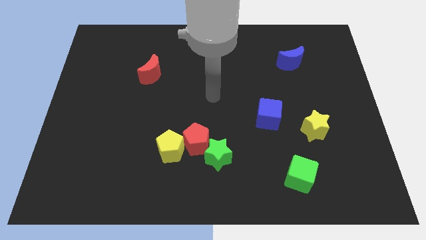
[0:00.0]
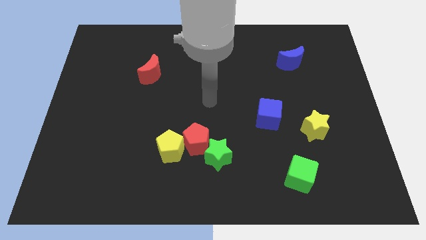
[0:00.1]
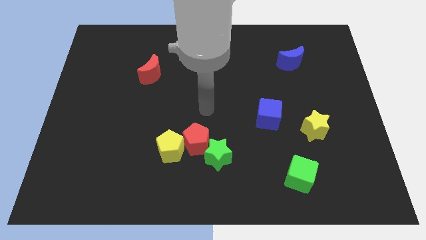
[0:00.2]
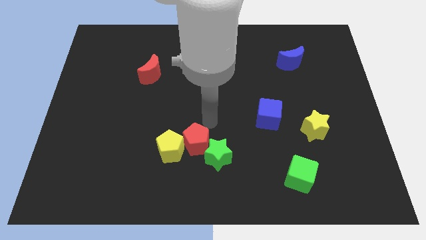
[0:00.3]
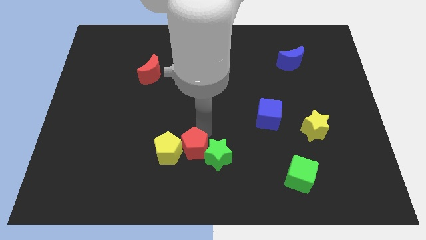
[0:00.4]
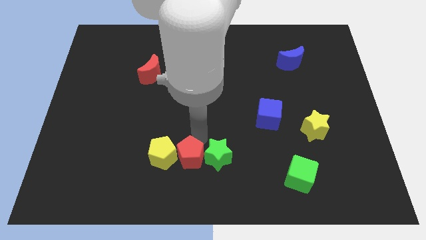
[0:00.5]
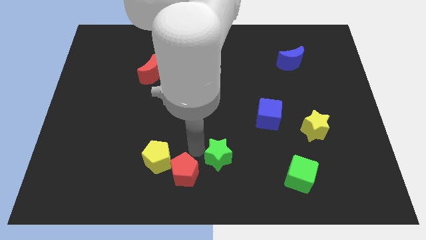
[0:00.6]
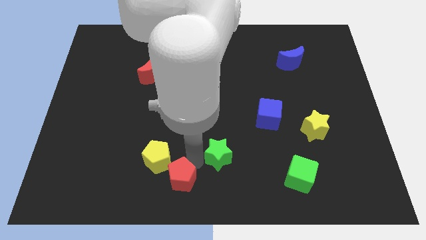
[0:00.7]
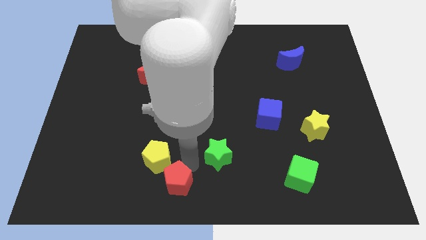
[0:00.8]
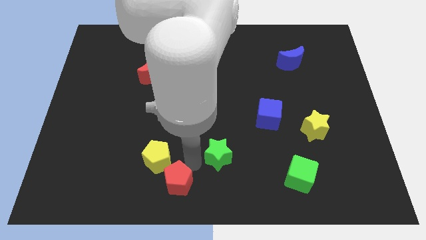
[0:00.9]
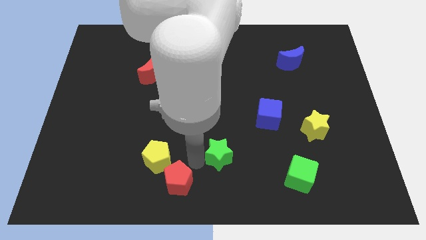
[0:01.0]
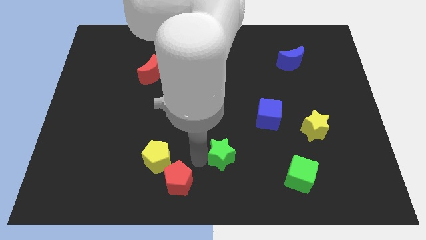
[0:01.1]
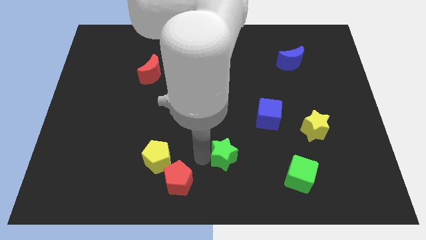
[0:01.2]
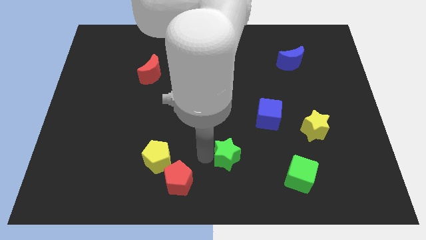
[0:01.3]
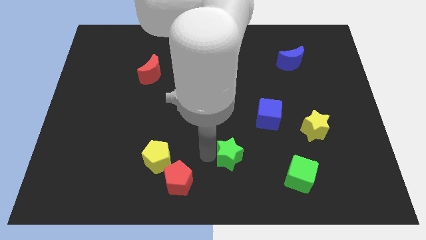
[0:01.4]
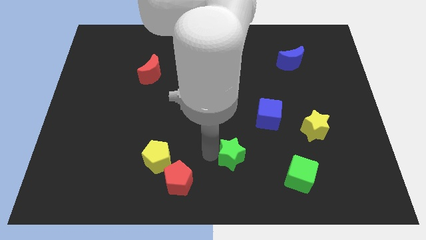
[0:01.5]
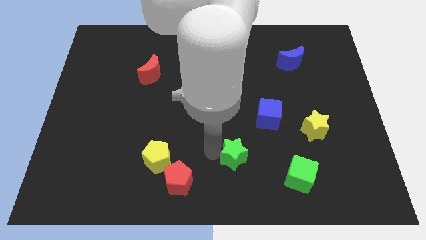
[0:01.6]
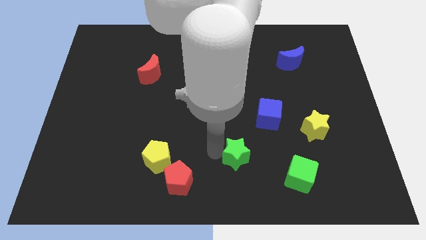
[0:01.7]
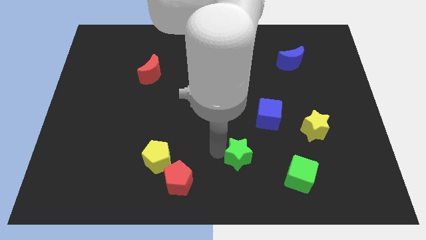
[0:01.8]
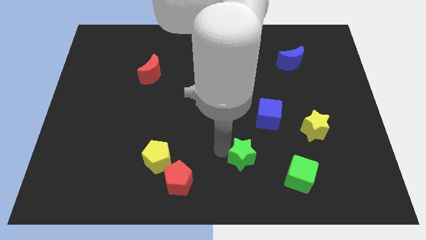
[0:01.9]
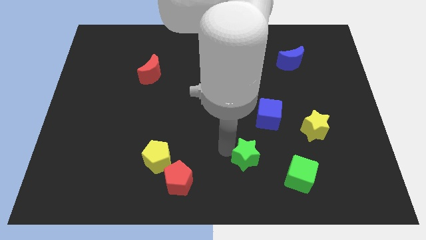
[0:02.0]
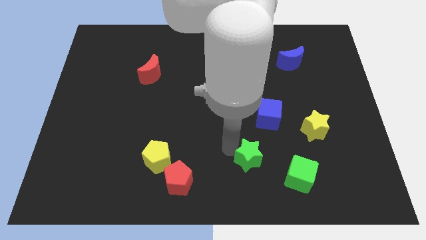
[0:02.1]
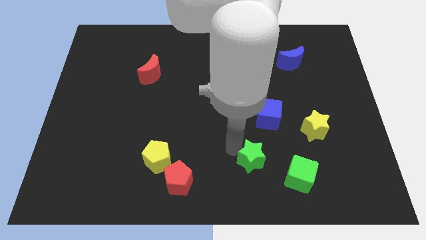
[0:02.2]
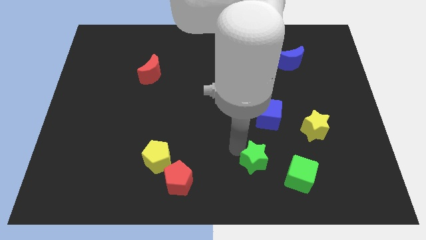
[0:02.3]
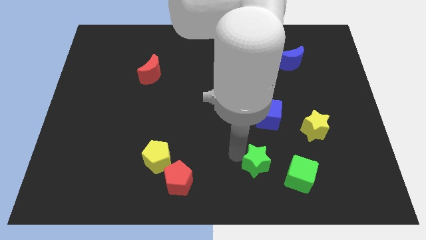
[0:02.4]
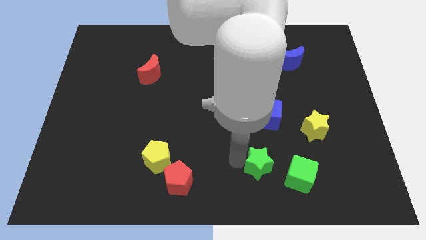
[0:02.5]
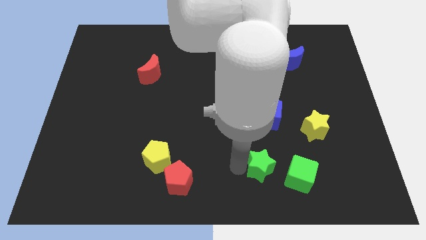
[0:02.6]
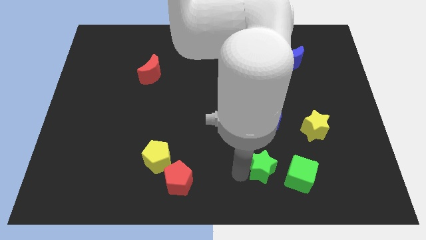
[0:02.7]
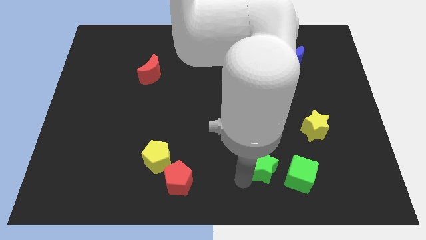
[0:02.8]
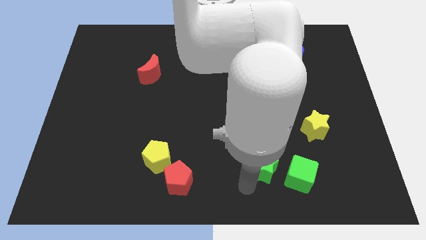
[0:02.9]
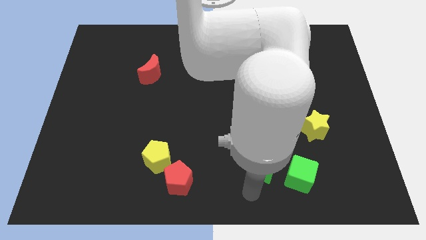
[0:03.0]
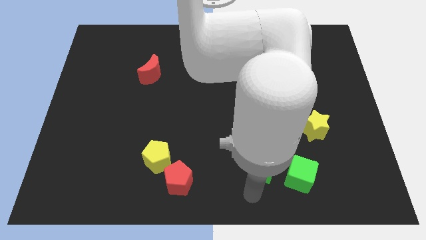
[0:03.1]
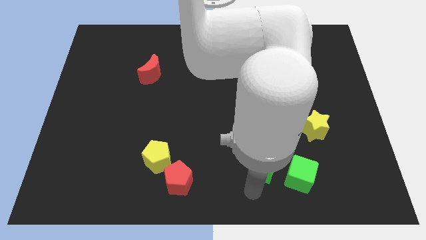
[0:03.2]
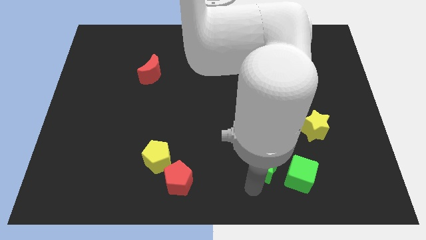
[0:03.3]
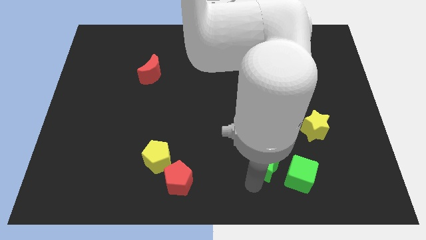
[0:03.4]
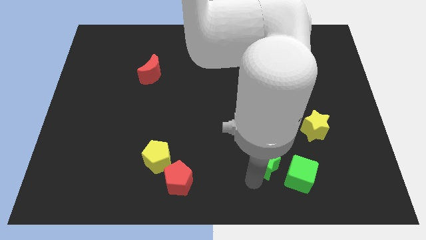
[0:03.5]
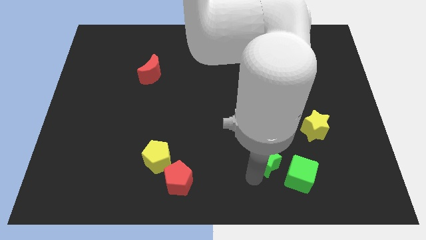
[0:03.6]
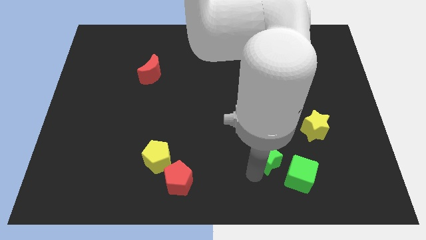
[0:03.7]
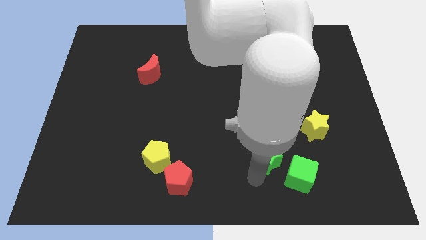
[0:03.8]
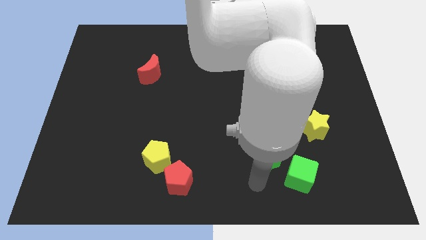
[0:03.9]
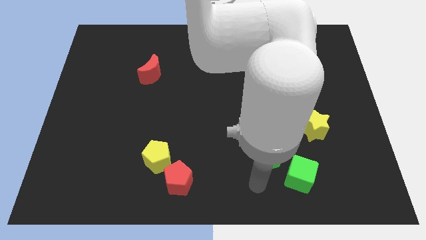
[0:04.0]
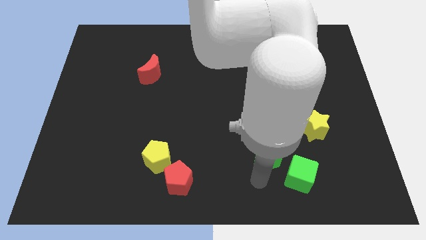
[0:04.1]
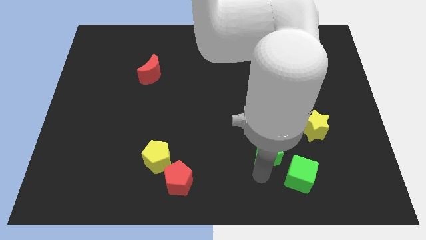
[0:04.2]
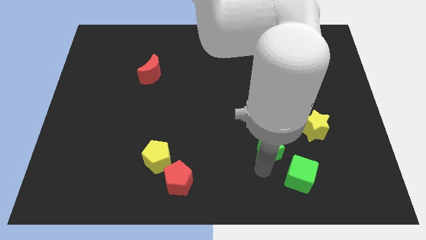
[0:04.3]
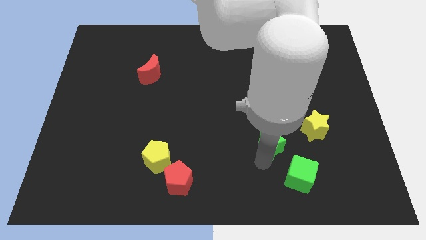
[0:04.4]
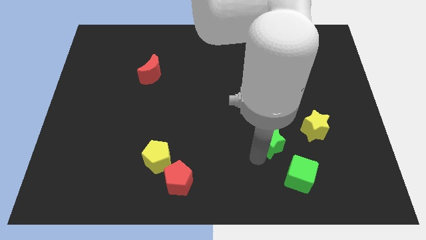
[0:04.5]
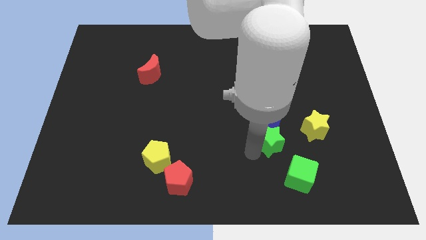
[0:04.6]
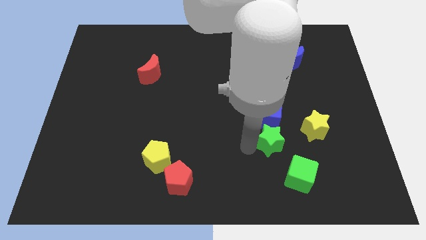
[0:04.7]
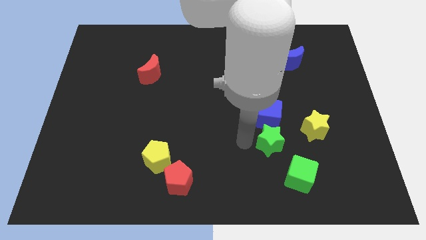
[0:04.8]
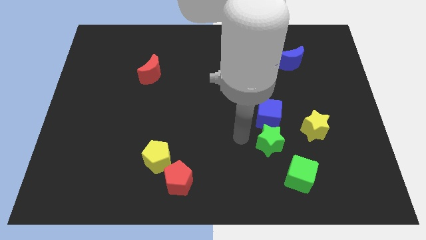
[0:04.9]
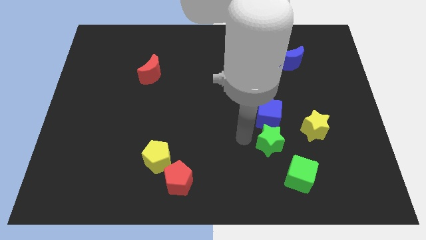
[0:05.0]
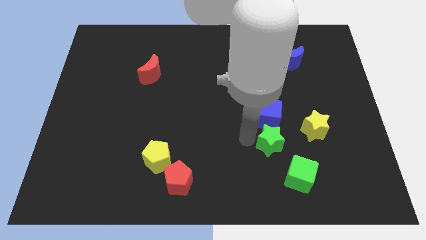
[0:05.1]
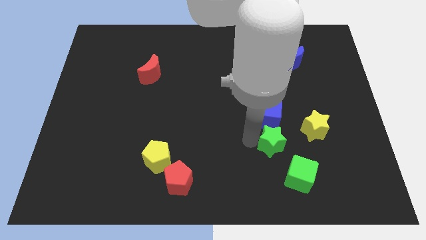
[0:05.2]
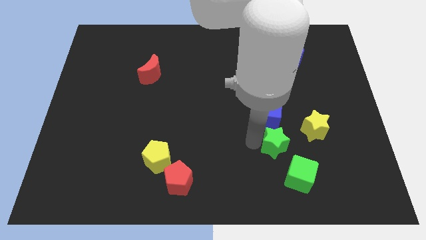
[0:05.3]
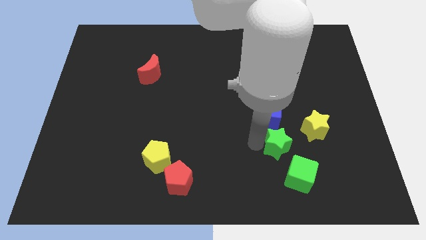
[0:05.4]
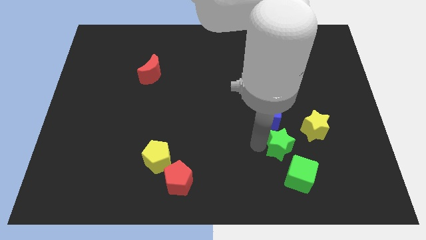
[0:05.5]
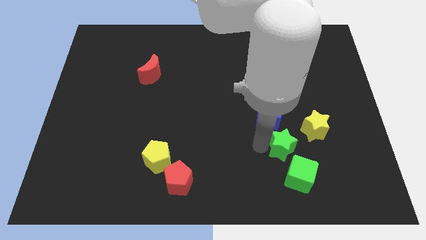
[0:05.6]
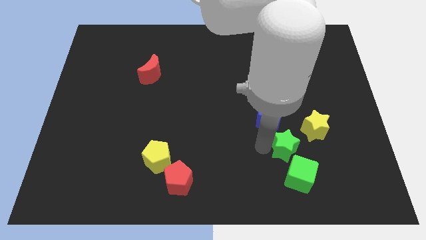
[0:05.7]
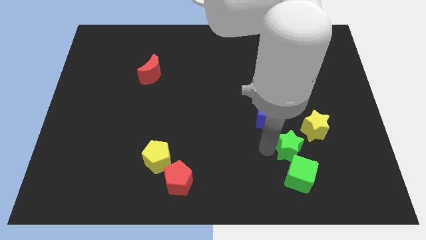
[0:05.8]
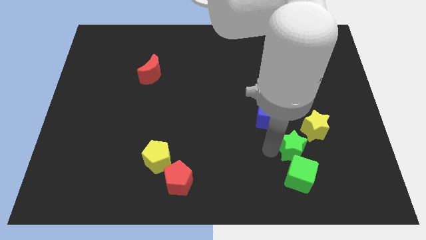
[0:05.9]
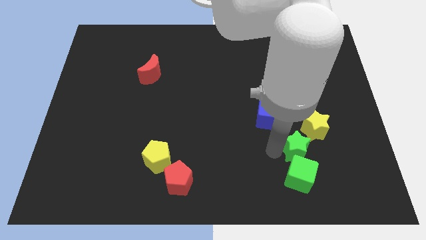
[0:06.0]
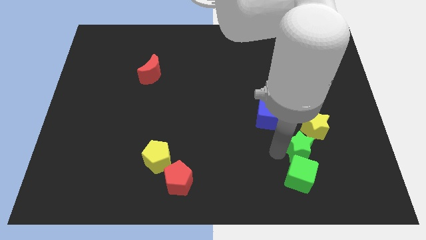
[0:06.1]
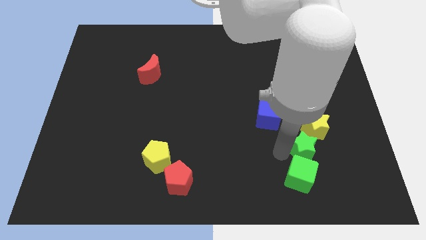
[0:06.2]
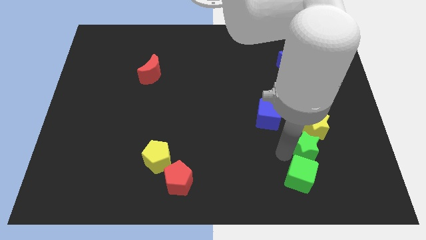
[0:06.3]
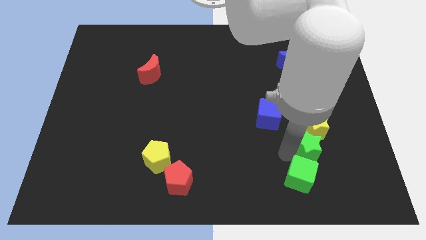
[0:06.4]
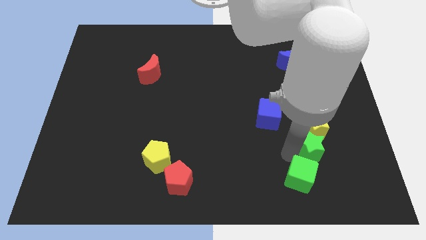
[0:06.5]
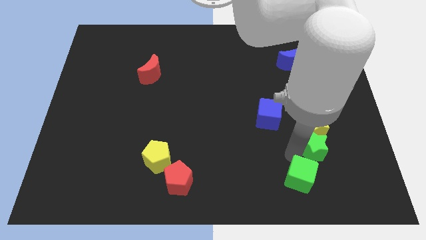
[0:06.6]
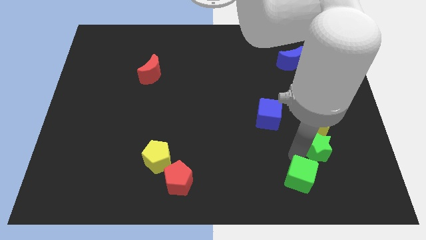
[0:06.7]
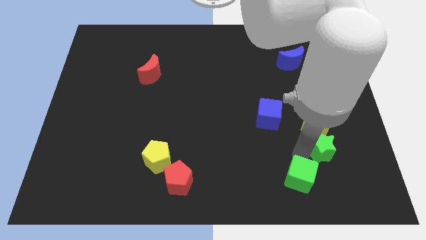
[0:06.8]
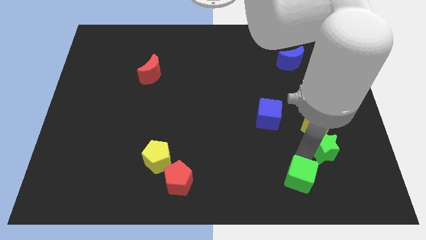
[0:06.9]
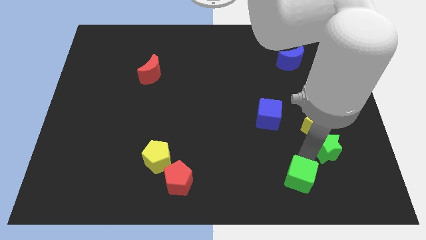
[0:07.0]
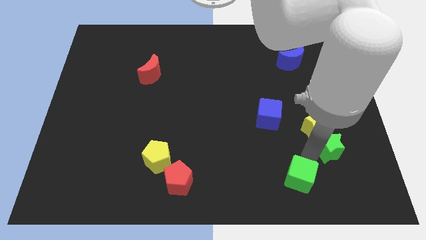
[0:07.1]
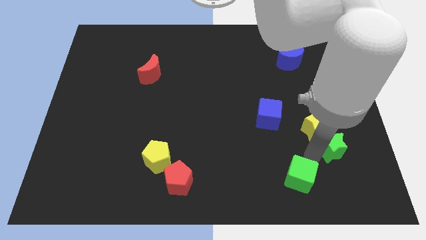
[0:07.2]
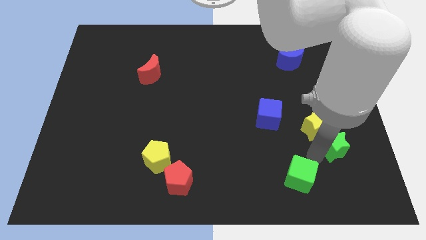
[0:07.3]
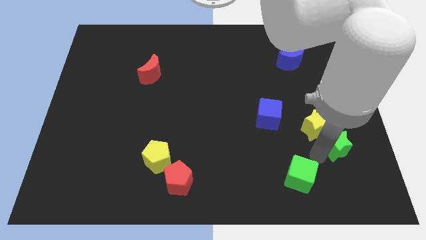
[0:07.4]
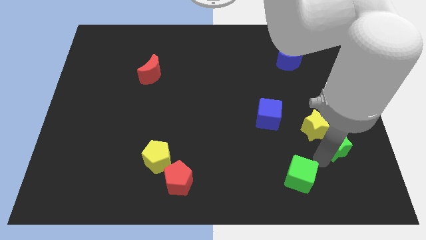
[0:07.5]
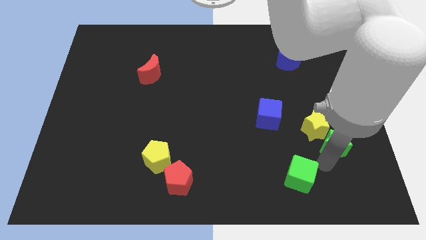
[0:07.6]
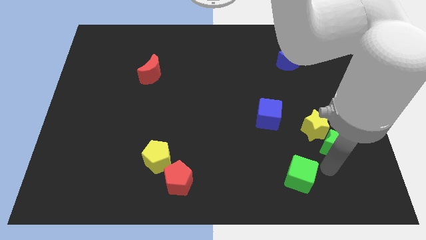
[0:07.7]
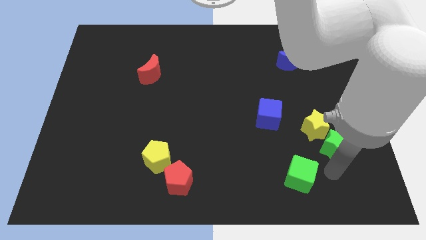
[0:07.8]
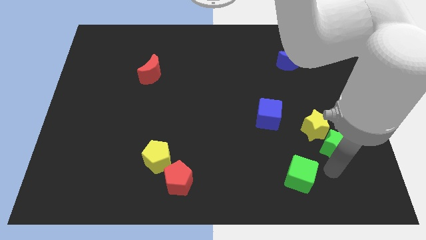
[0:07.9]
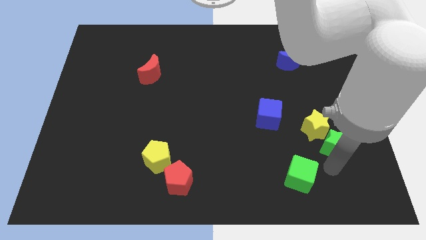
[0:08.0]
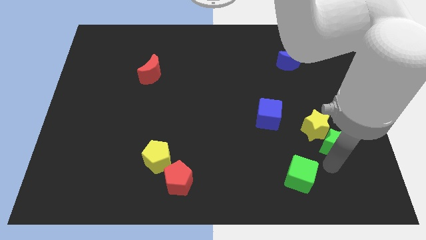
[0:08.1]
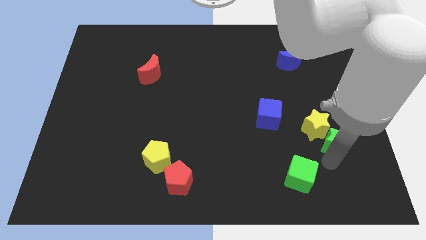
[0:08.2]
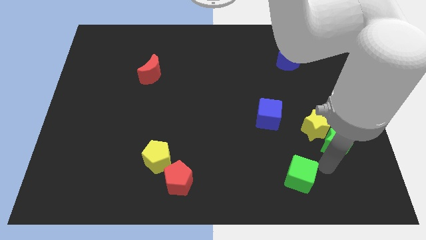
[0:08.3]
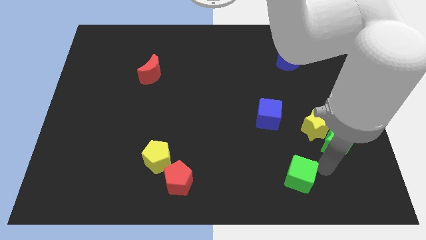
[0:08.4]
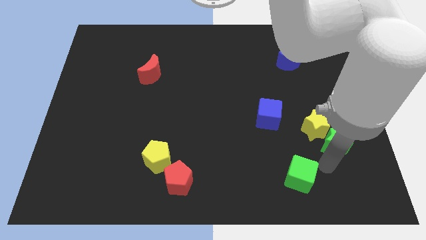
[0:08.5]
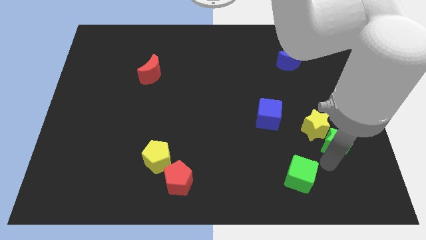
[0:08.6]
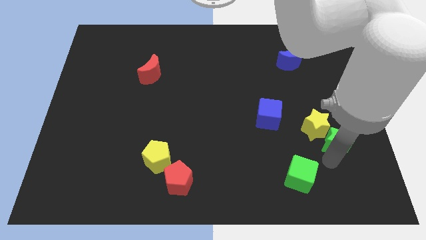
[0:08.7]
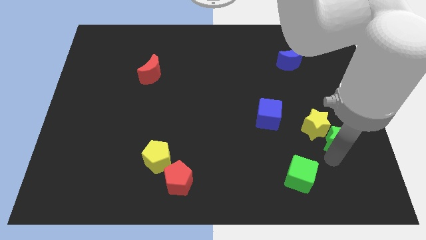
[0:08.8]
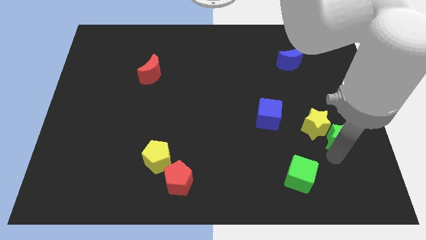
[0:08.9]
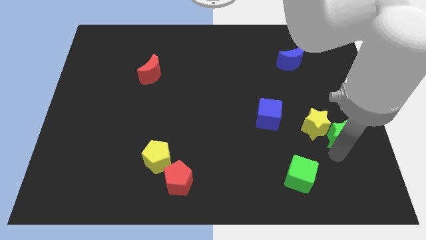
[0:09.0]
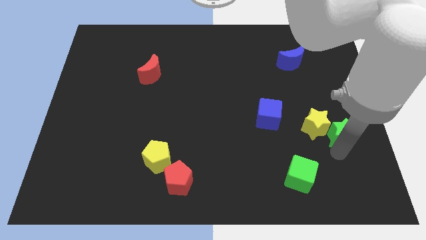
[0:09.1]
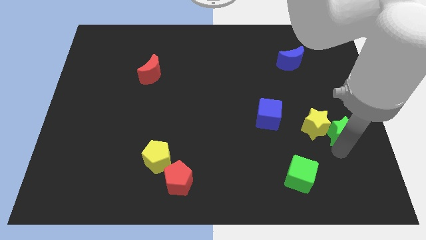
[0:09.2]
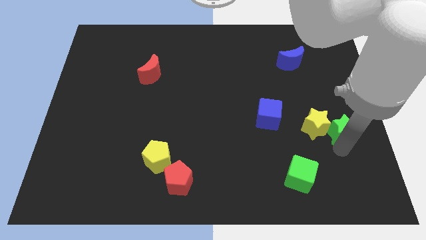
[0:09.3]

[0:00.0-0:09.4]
put the green star to the center right
